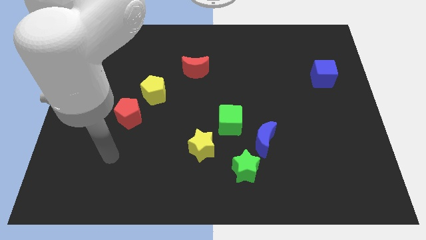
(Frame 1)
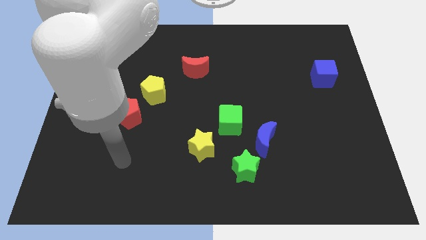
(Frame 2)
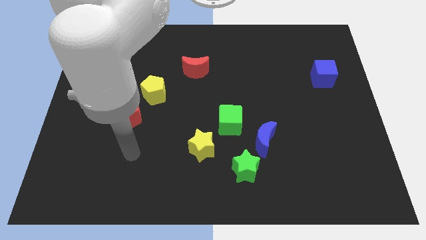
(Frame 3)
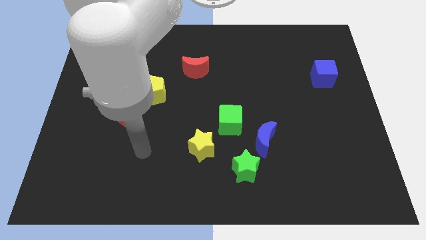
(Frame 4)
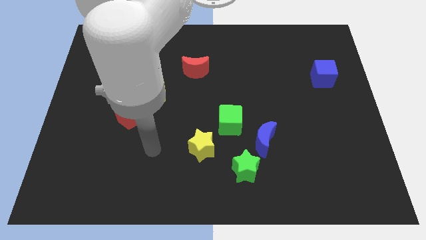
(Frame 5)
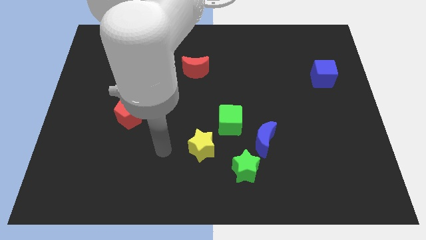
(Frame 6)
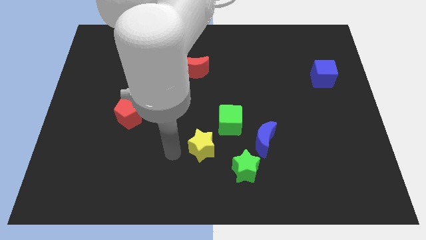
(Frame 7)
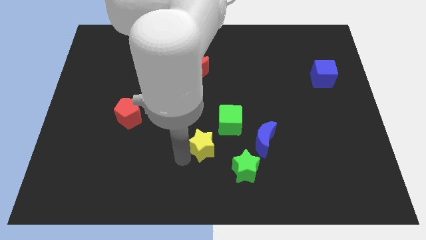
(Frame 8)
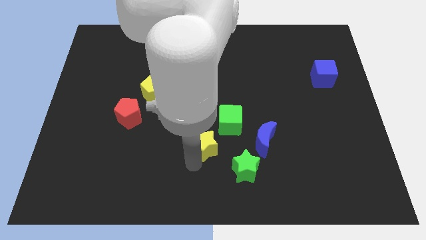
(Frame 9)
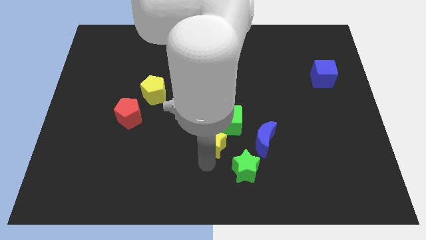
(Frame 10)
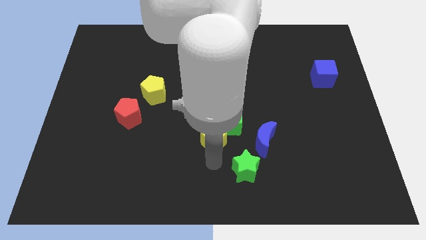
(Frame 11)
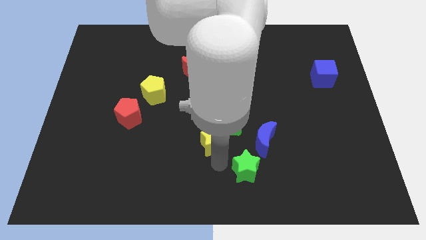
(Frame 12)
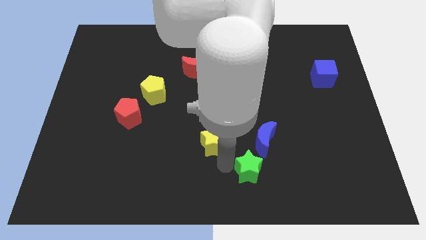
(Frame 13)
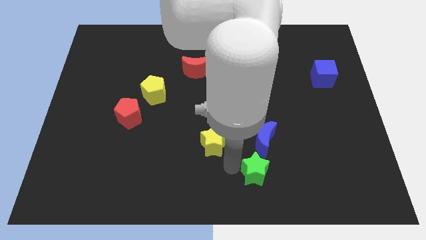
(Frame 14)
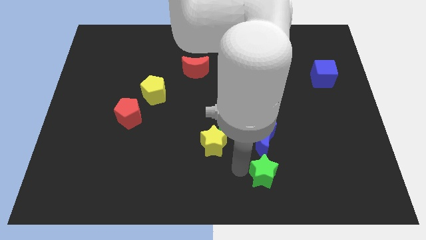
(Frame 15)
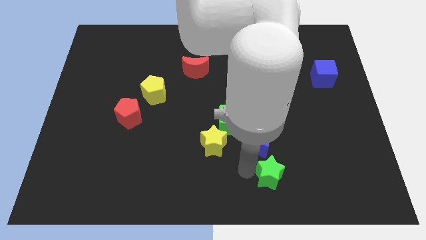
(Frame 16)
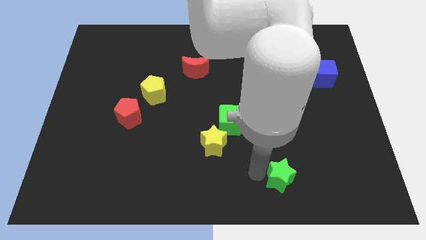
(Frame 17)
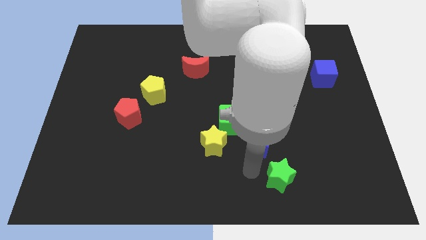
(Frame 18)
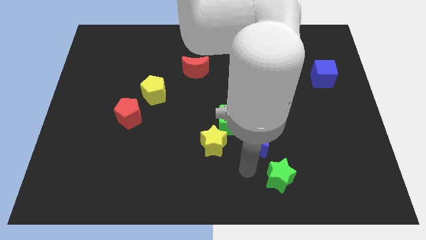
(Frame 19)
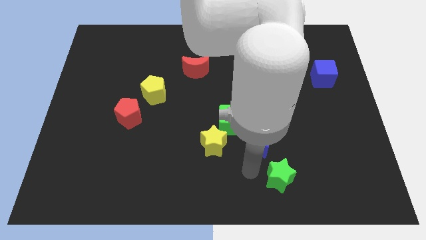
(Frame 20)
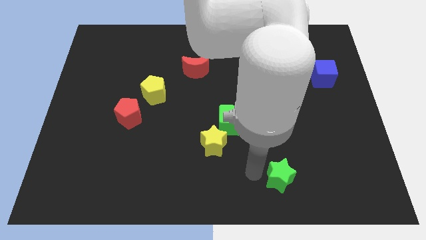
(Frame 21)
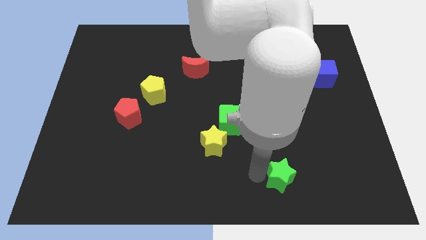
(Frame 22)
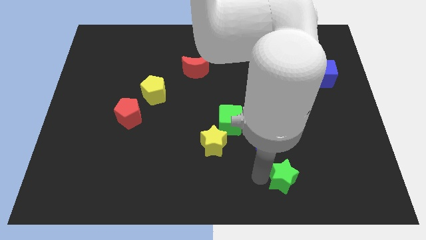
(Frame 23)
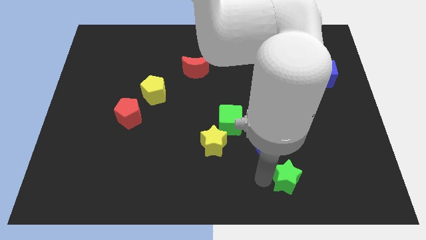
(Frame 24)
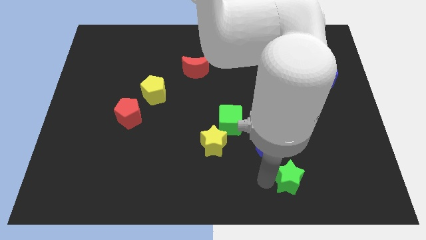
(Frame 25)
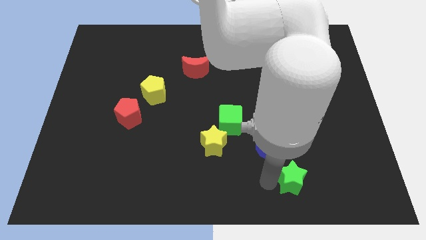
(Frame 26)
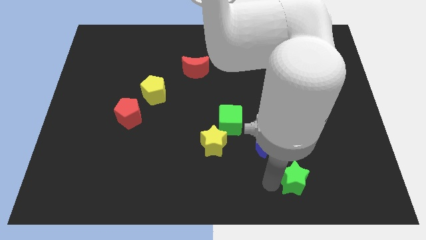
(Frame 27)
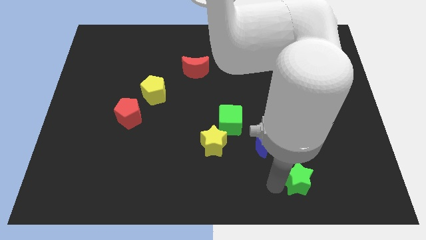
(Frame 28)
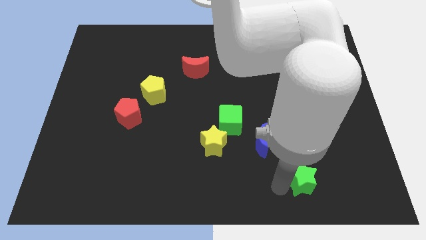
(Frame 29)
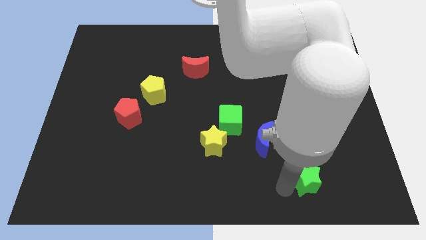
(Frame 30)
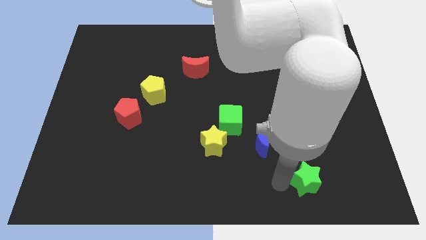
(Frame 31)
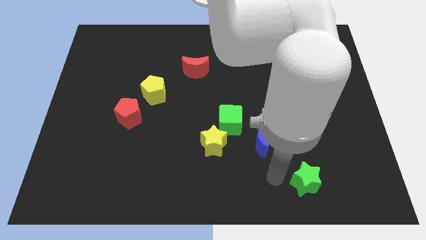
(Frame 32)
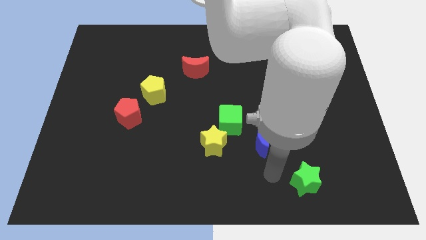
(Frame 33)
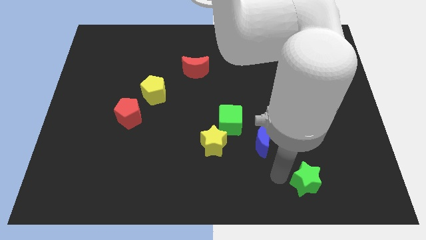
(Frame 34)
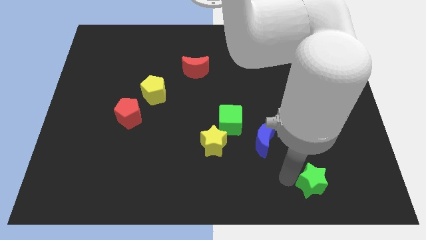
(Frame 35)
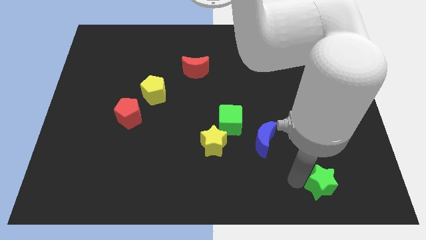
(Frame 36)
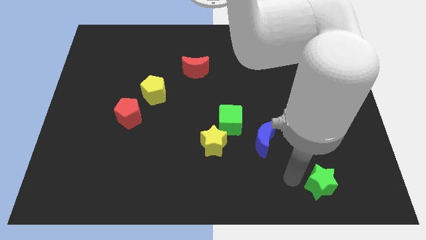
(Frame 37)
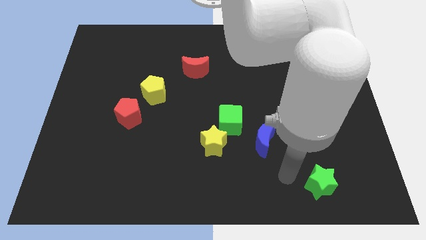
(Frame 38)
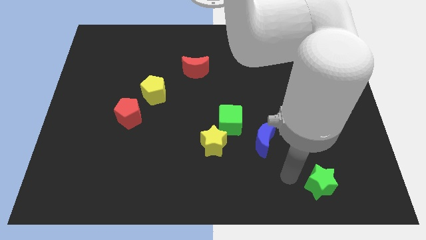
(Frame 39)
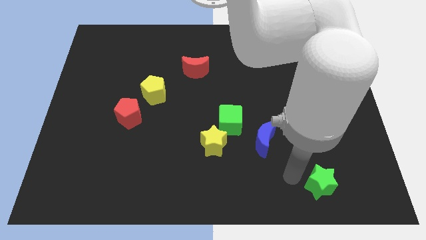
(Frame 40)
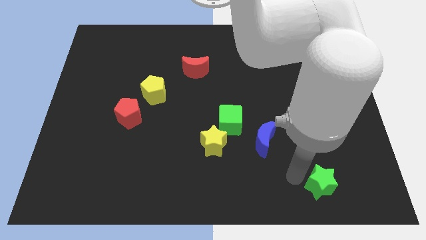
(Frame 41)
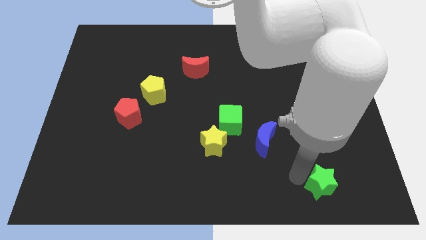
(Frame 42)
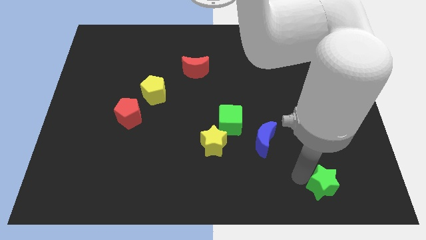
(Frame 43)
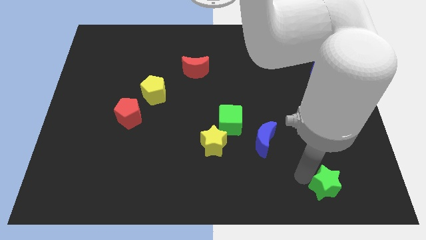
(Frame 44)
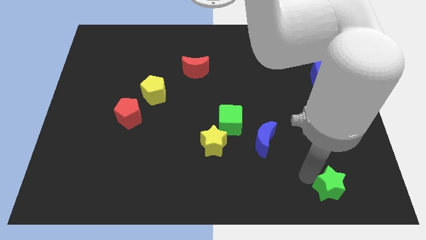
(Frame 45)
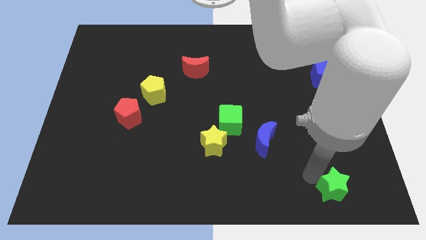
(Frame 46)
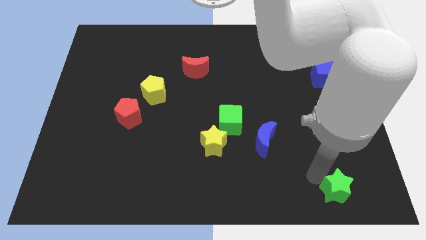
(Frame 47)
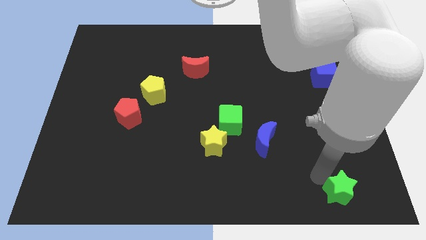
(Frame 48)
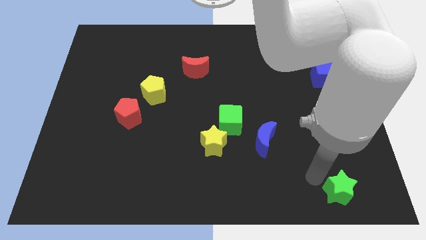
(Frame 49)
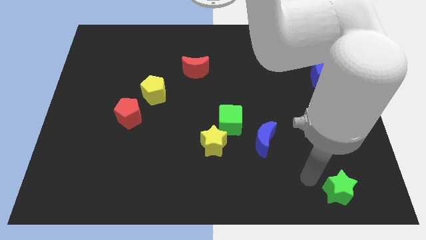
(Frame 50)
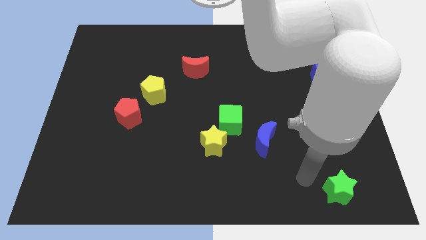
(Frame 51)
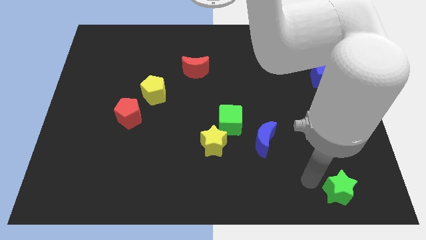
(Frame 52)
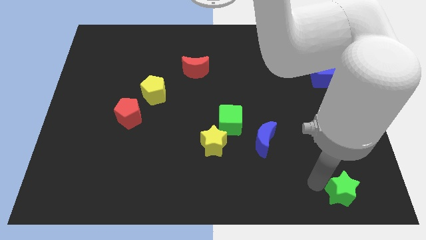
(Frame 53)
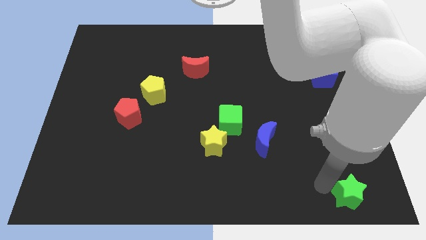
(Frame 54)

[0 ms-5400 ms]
move the green star to the bottom right of the board
